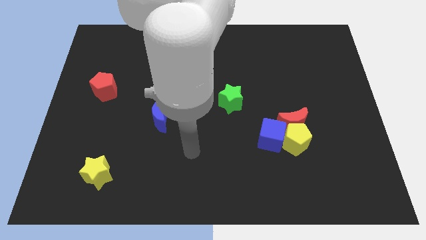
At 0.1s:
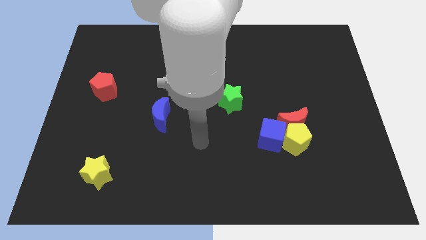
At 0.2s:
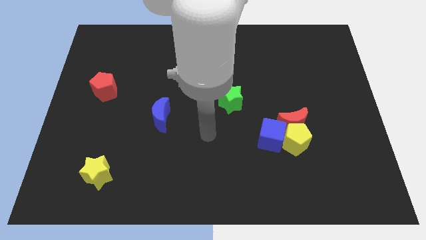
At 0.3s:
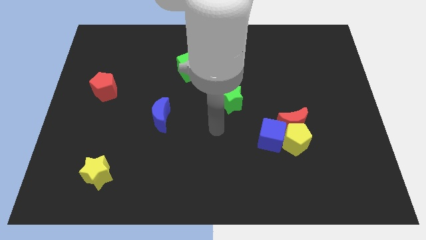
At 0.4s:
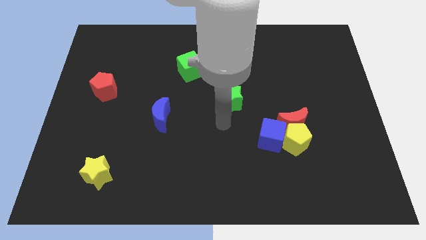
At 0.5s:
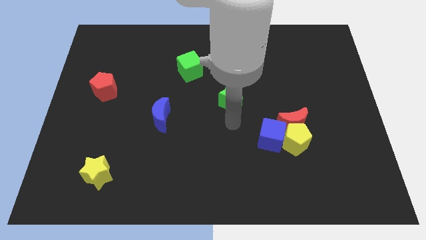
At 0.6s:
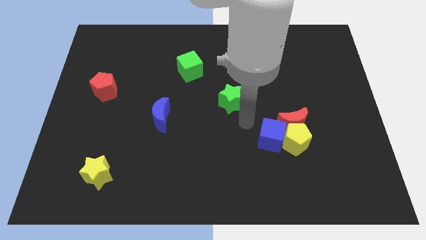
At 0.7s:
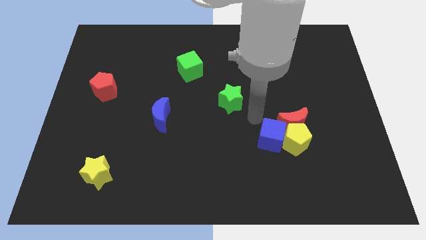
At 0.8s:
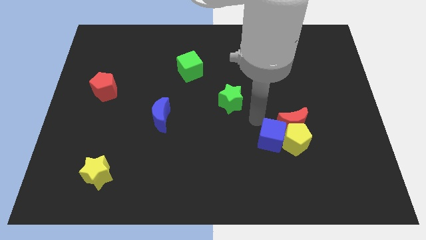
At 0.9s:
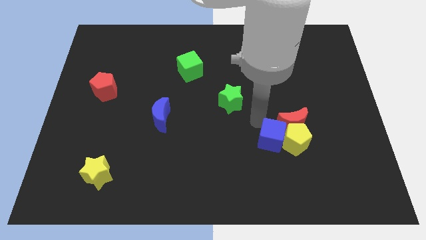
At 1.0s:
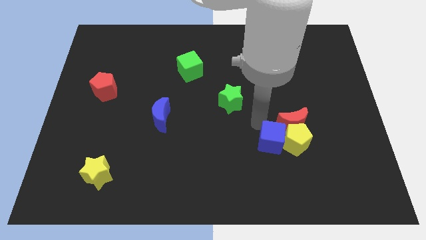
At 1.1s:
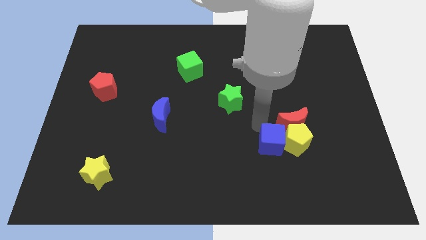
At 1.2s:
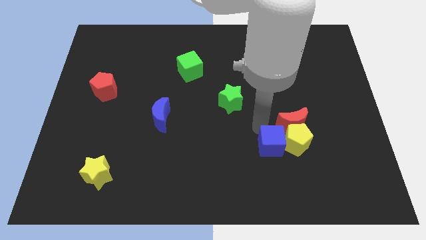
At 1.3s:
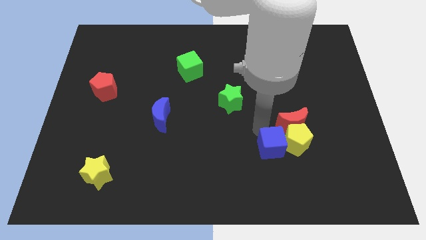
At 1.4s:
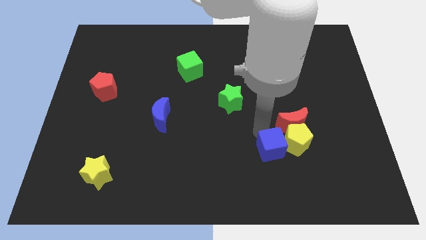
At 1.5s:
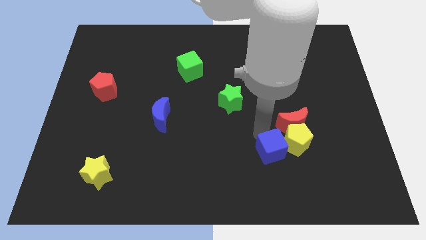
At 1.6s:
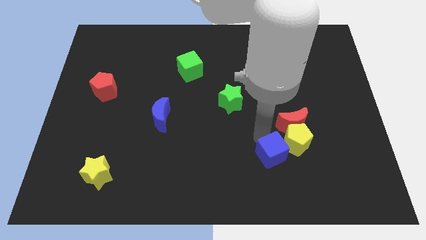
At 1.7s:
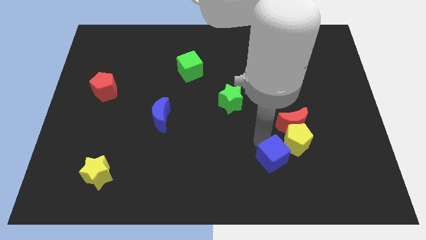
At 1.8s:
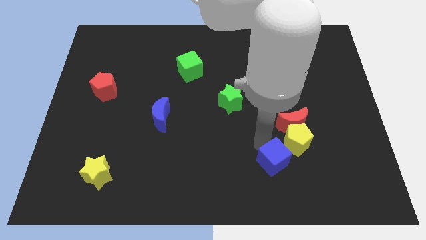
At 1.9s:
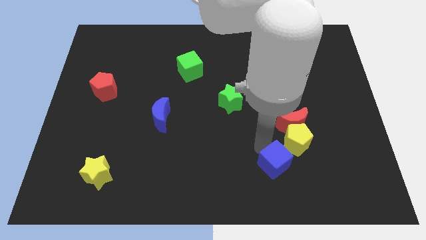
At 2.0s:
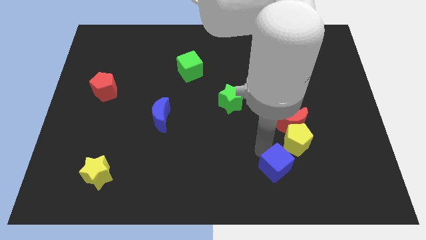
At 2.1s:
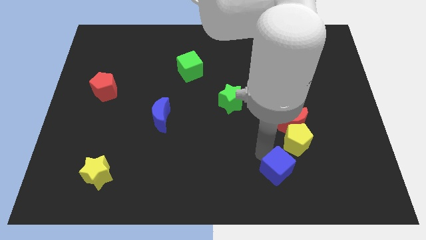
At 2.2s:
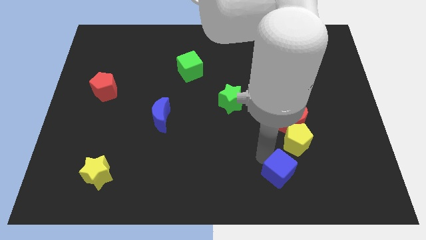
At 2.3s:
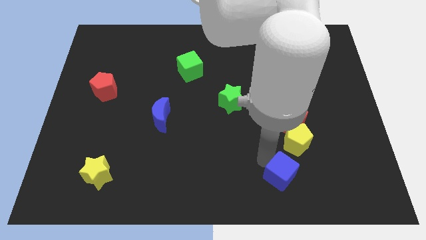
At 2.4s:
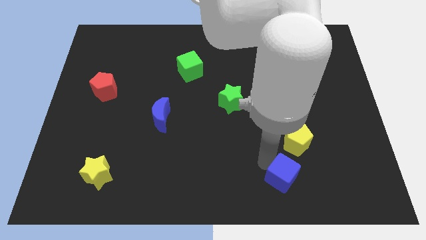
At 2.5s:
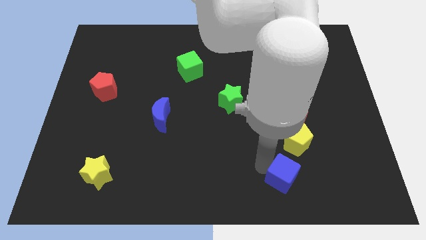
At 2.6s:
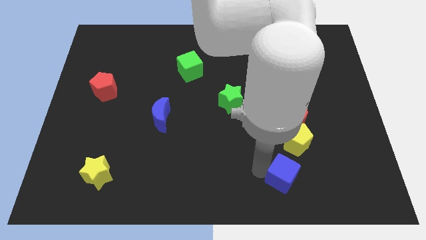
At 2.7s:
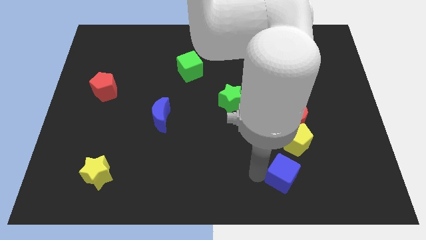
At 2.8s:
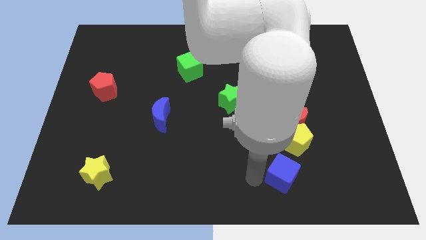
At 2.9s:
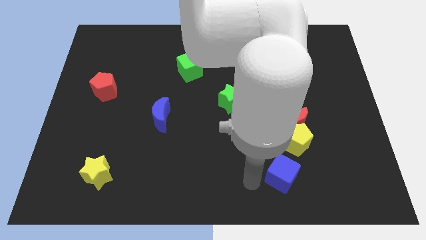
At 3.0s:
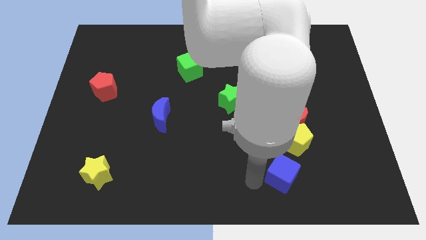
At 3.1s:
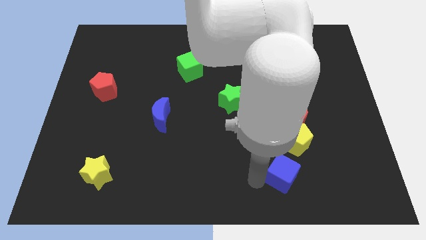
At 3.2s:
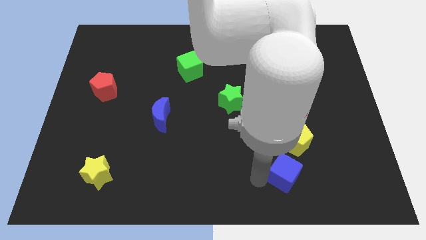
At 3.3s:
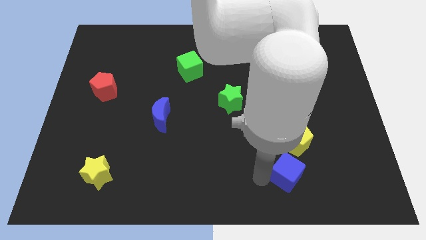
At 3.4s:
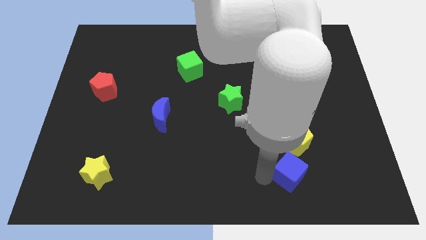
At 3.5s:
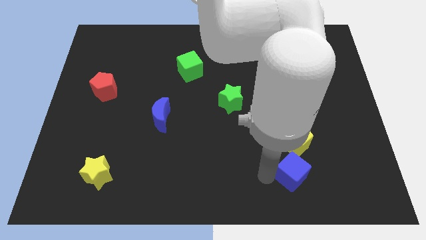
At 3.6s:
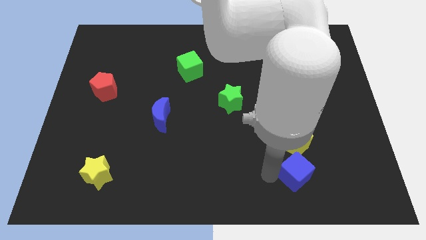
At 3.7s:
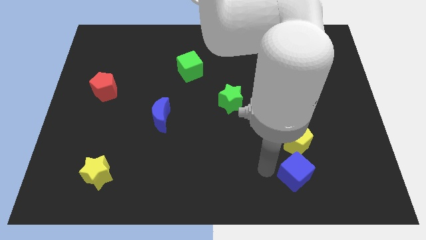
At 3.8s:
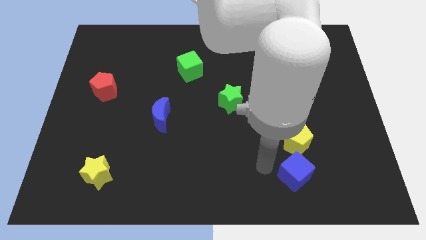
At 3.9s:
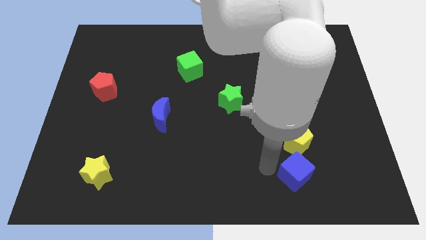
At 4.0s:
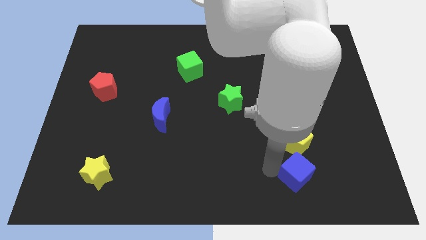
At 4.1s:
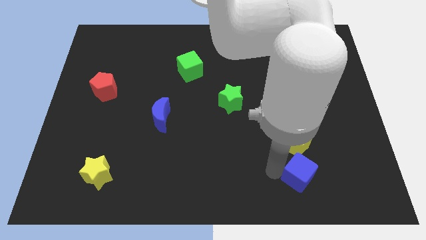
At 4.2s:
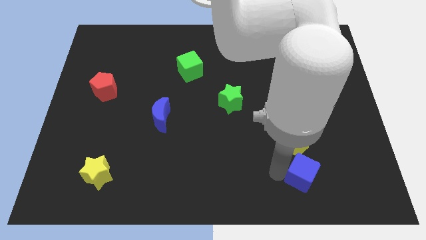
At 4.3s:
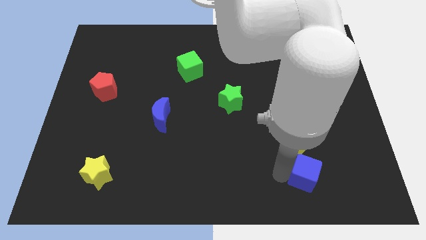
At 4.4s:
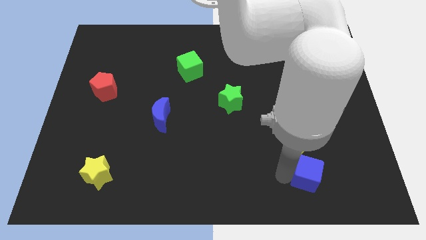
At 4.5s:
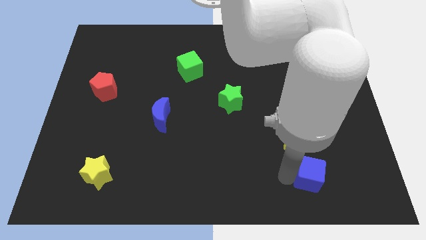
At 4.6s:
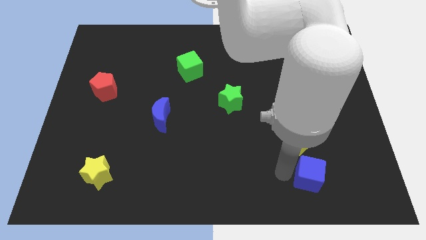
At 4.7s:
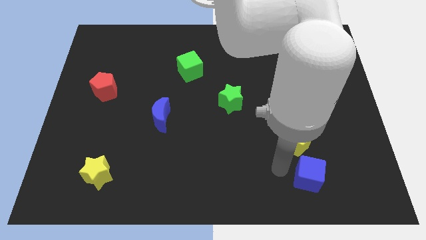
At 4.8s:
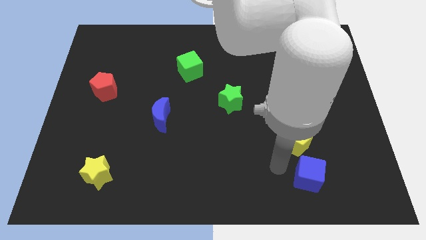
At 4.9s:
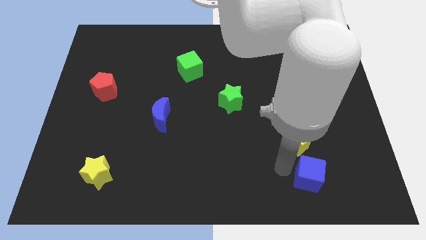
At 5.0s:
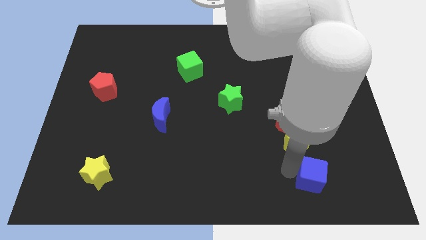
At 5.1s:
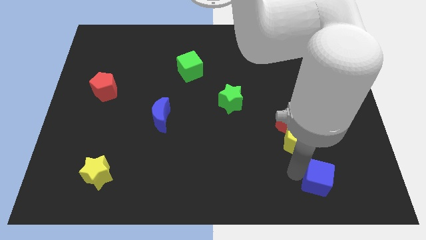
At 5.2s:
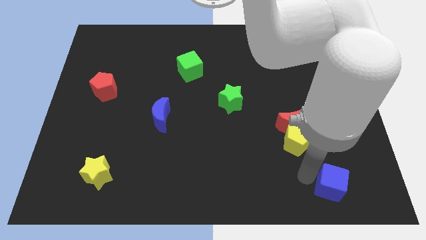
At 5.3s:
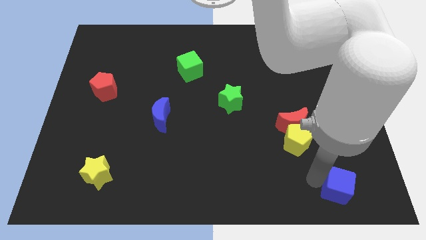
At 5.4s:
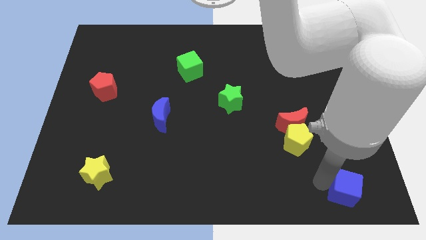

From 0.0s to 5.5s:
push the blue cube to the lower right corner

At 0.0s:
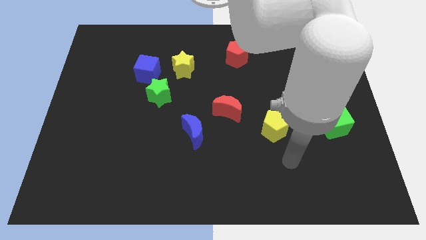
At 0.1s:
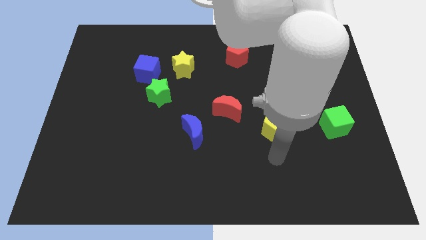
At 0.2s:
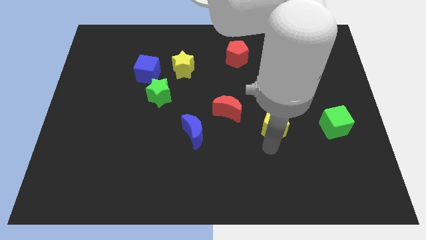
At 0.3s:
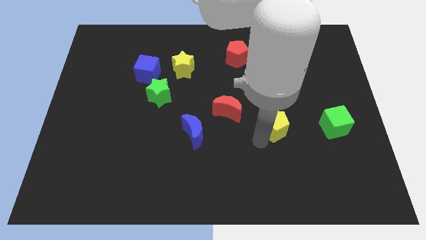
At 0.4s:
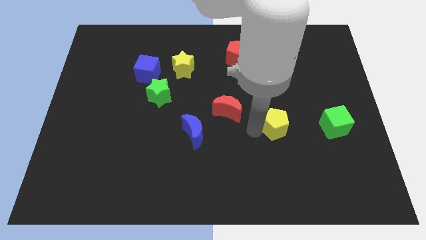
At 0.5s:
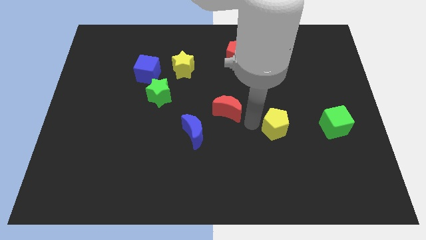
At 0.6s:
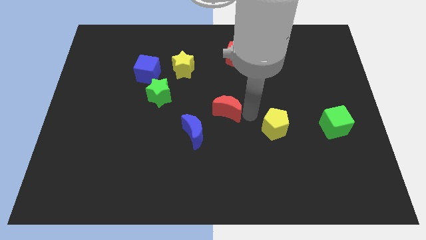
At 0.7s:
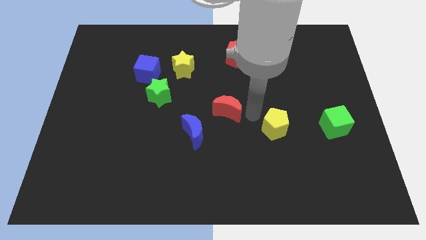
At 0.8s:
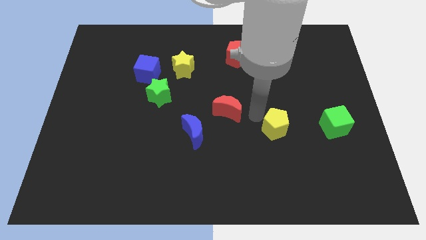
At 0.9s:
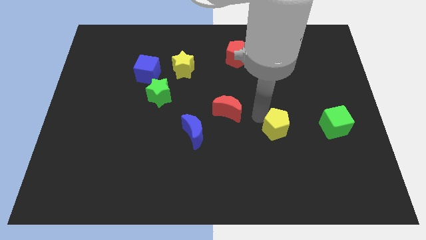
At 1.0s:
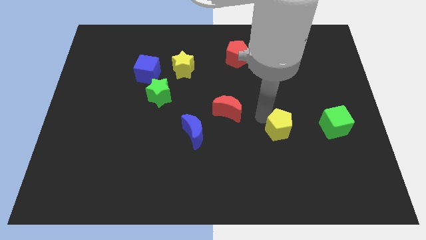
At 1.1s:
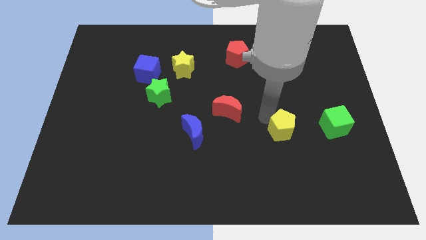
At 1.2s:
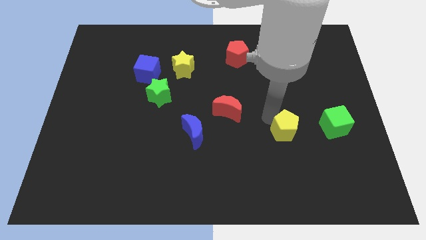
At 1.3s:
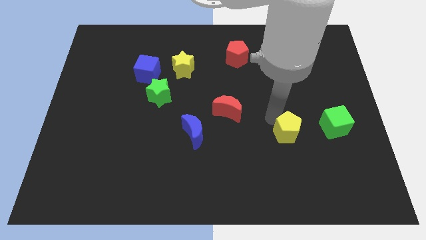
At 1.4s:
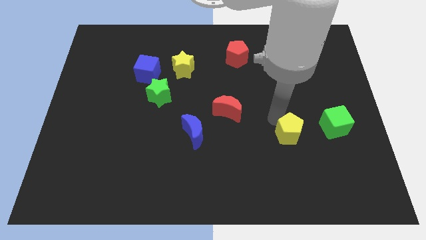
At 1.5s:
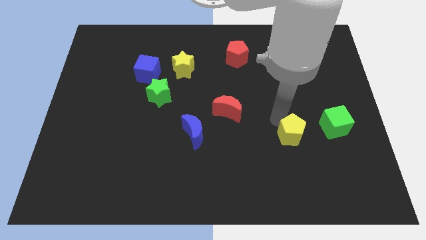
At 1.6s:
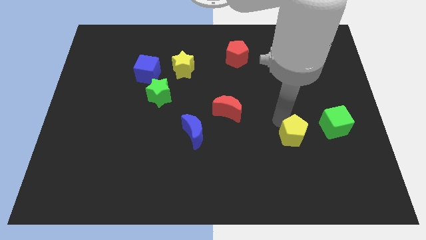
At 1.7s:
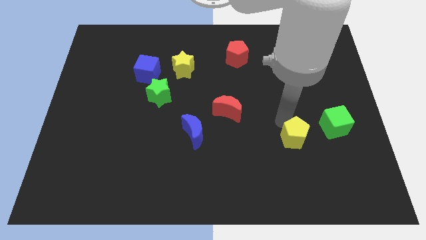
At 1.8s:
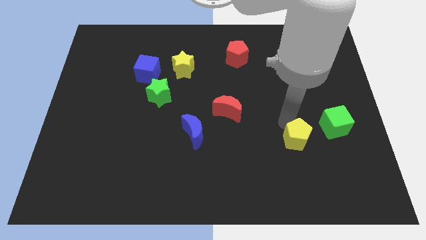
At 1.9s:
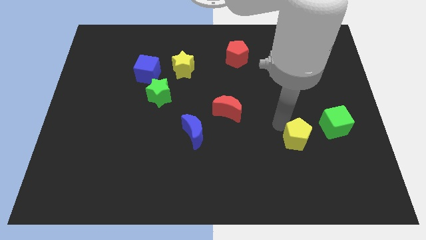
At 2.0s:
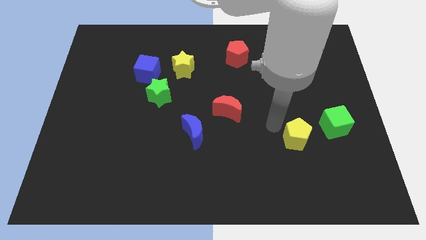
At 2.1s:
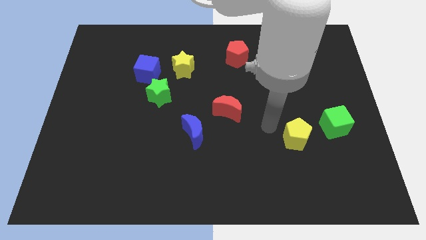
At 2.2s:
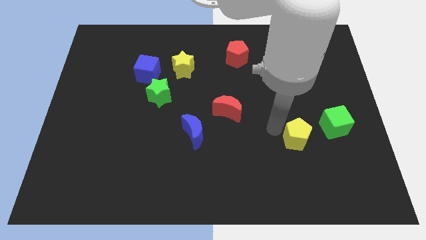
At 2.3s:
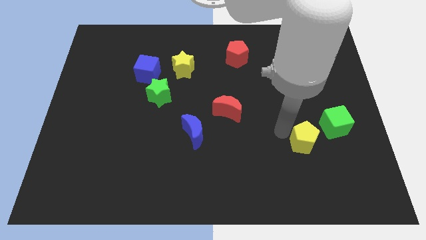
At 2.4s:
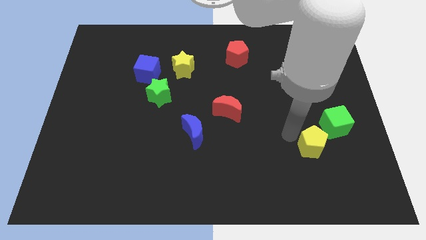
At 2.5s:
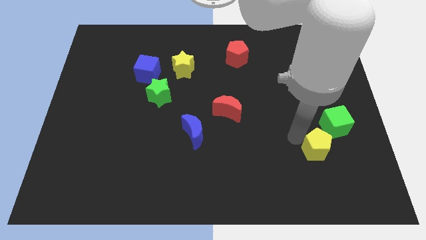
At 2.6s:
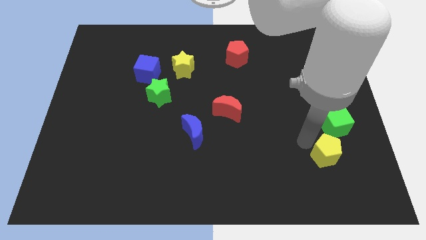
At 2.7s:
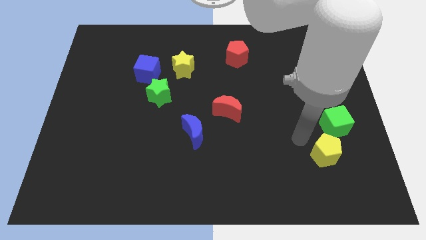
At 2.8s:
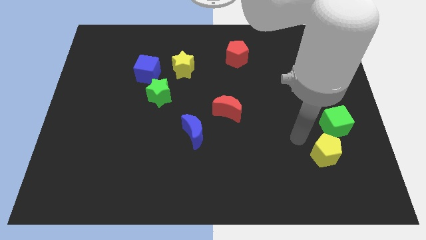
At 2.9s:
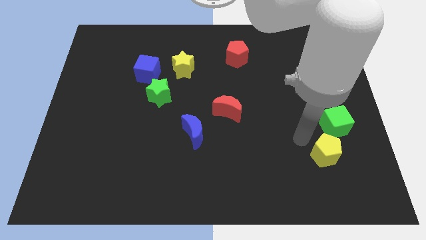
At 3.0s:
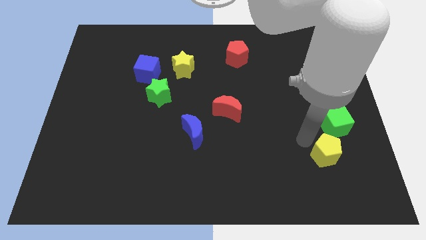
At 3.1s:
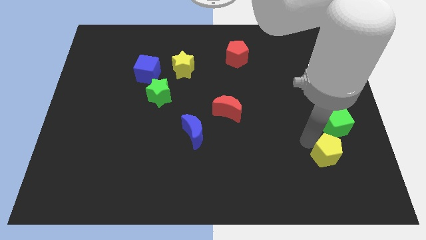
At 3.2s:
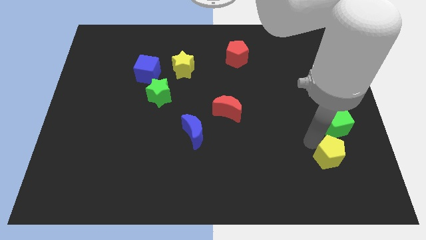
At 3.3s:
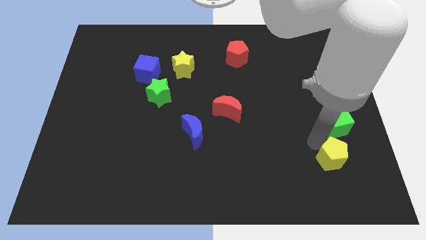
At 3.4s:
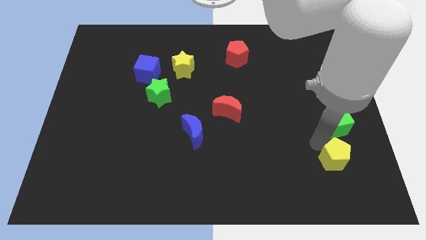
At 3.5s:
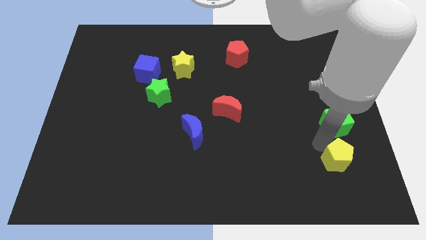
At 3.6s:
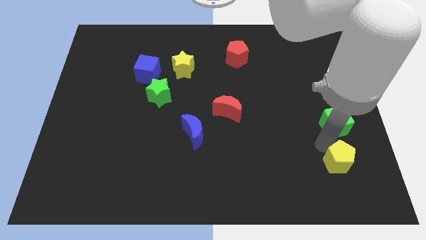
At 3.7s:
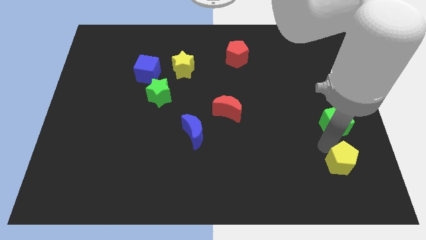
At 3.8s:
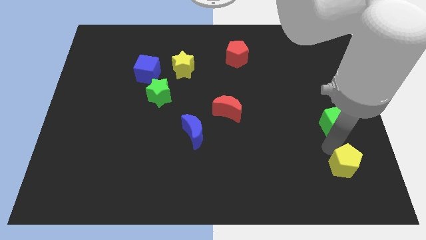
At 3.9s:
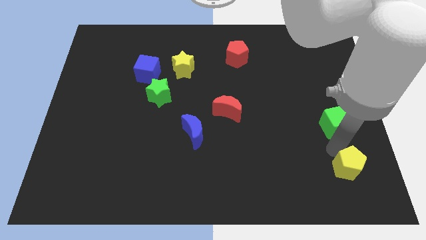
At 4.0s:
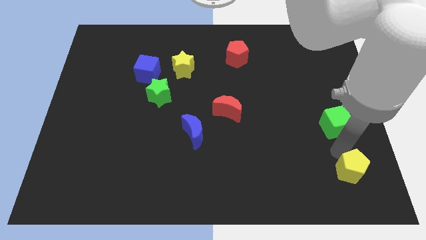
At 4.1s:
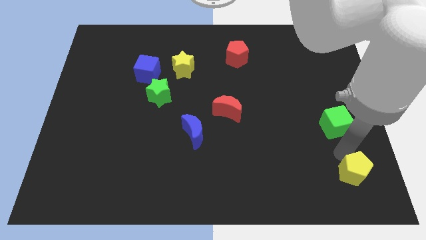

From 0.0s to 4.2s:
put the yellow pentagon to the bottom right of the board
